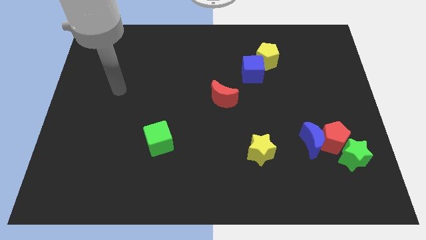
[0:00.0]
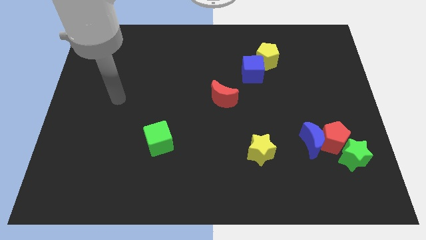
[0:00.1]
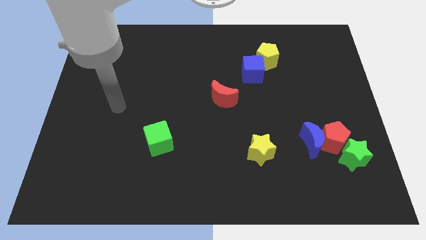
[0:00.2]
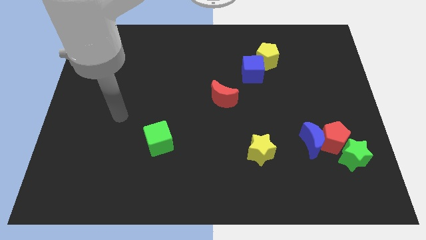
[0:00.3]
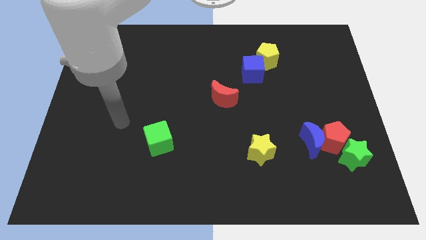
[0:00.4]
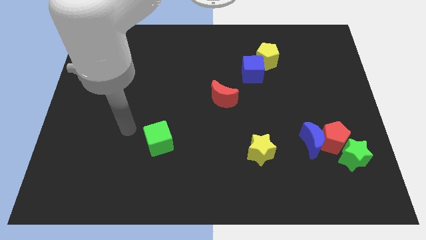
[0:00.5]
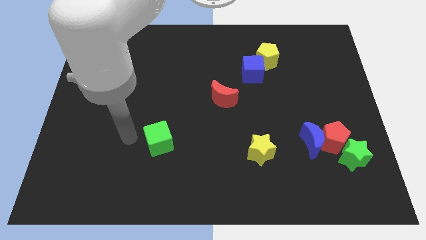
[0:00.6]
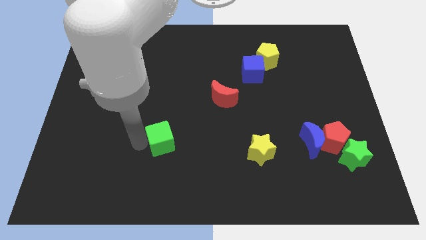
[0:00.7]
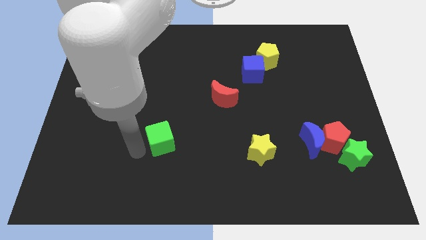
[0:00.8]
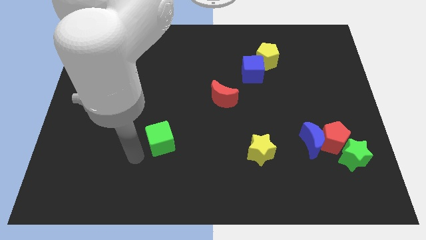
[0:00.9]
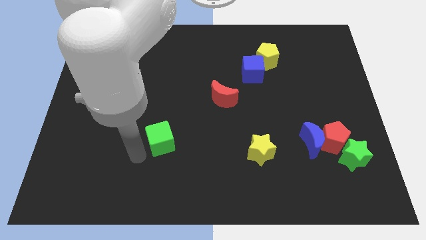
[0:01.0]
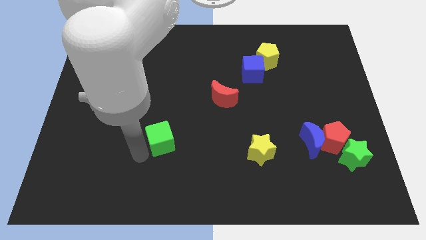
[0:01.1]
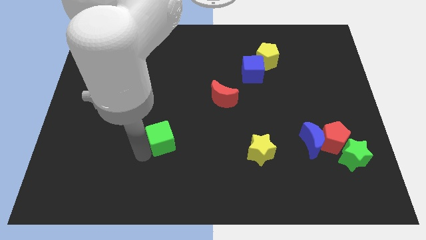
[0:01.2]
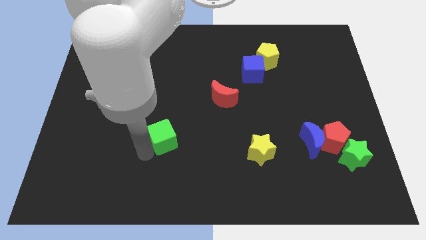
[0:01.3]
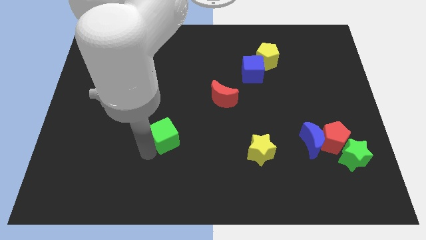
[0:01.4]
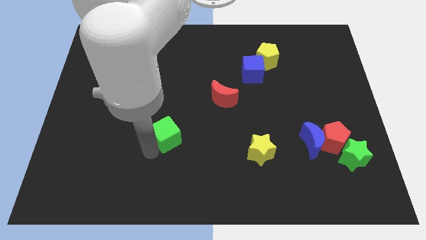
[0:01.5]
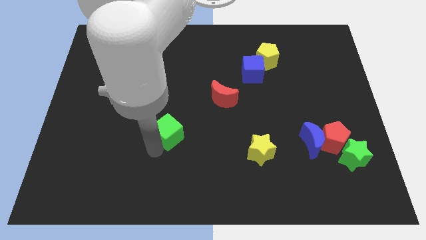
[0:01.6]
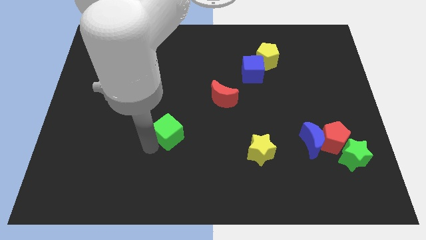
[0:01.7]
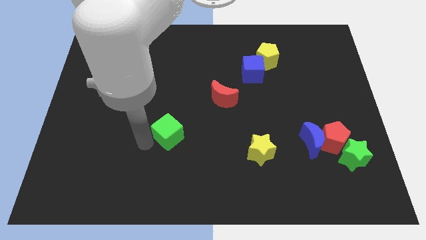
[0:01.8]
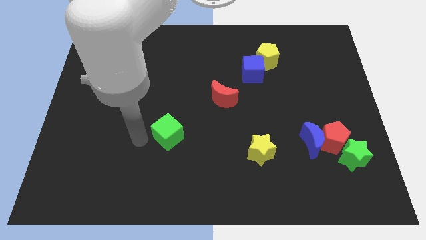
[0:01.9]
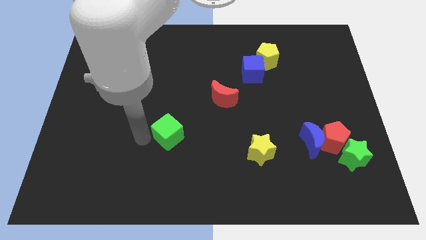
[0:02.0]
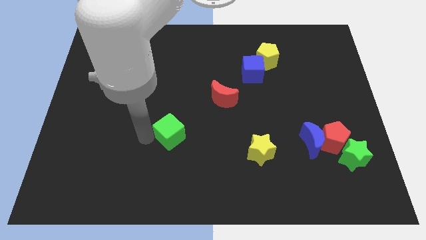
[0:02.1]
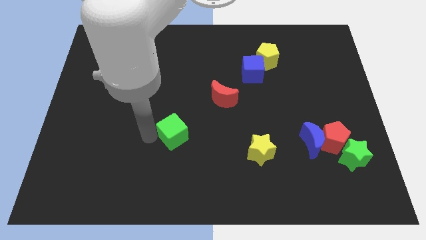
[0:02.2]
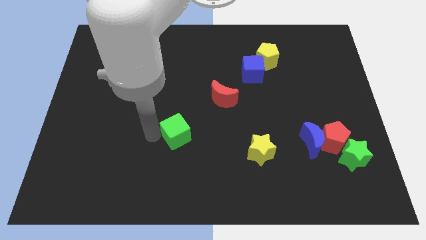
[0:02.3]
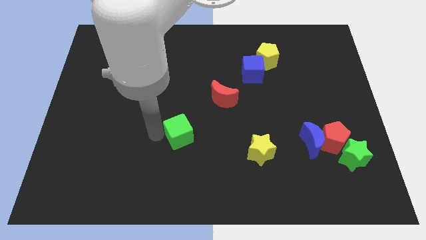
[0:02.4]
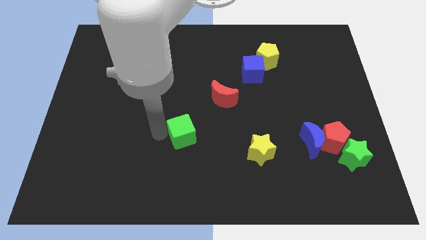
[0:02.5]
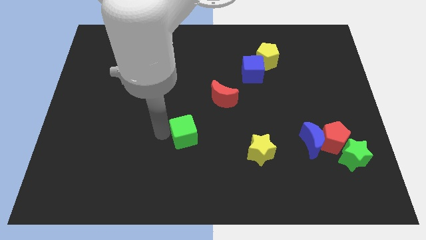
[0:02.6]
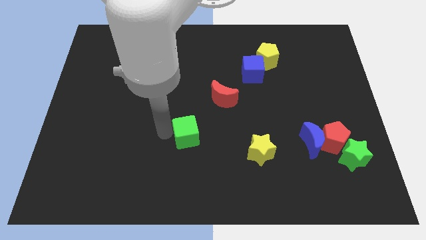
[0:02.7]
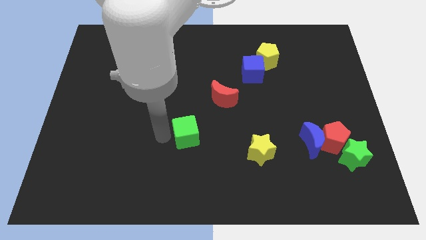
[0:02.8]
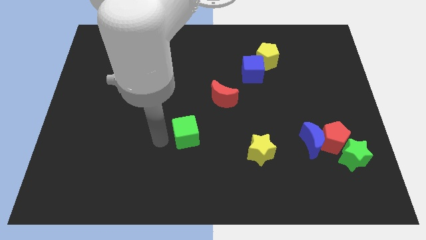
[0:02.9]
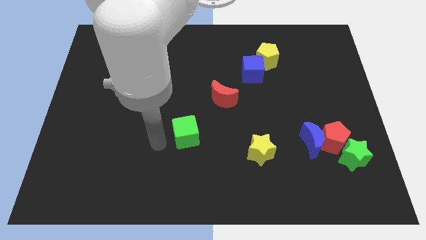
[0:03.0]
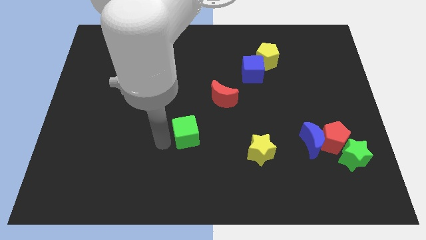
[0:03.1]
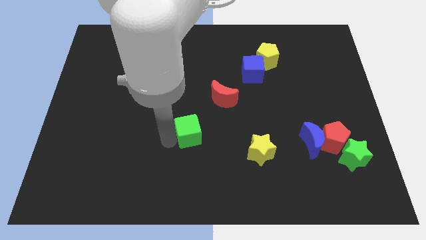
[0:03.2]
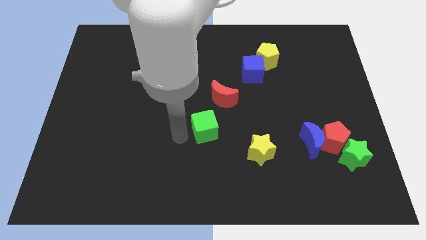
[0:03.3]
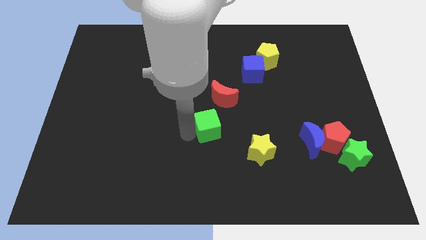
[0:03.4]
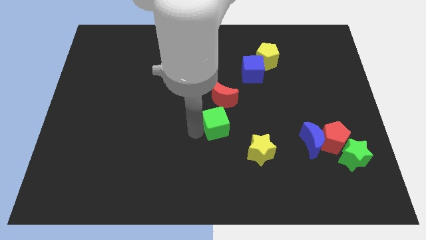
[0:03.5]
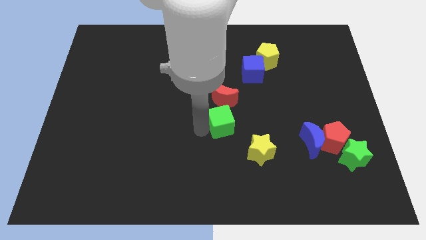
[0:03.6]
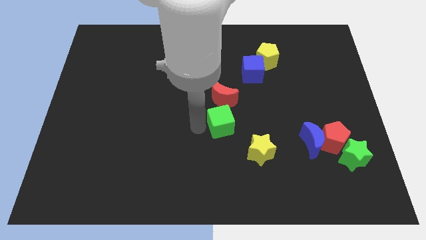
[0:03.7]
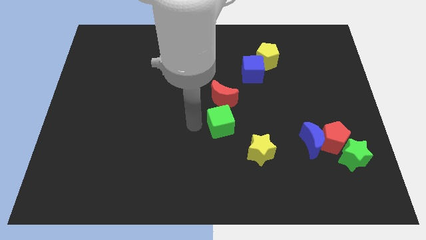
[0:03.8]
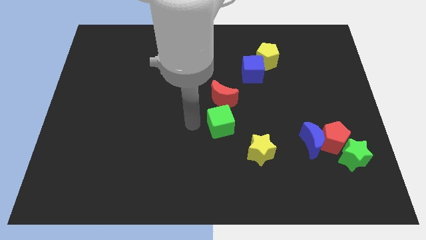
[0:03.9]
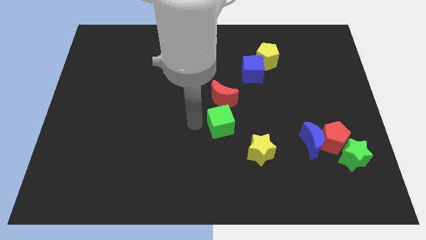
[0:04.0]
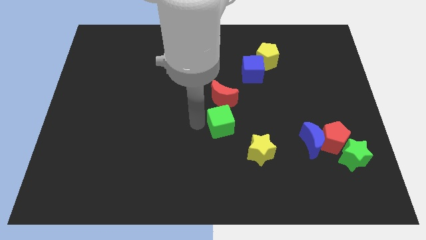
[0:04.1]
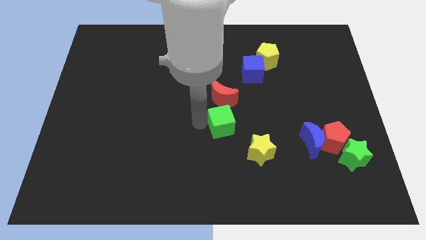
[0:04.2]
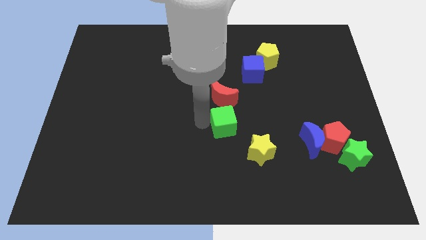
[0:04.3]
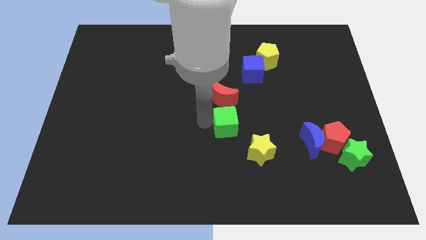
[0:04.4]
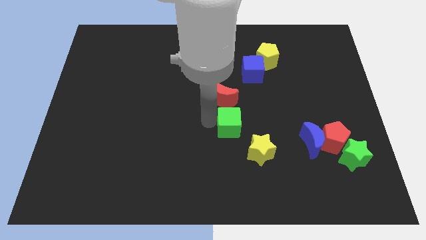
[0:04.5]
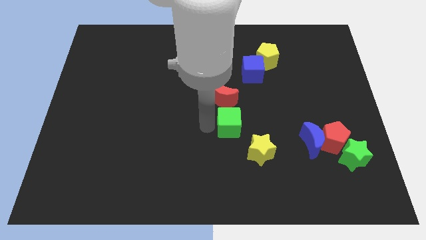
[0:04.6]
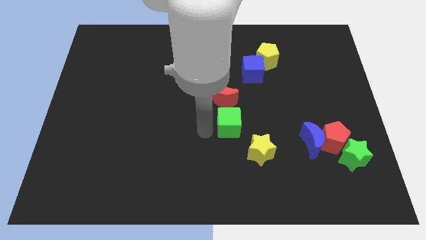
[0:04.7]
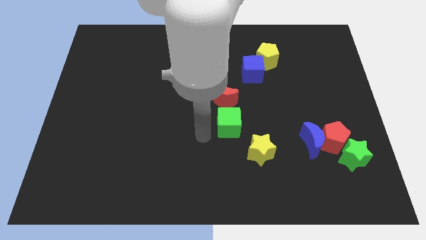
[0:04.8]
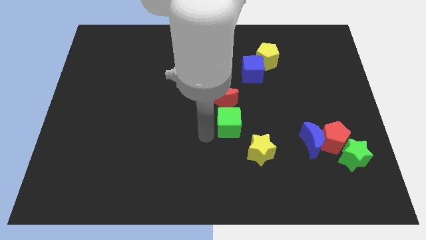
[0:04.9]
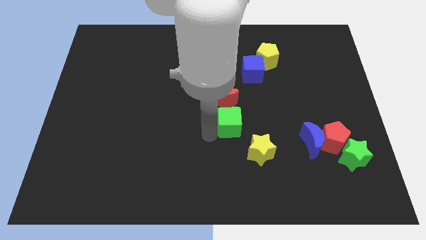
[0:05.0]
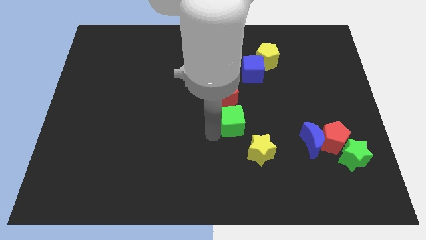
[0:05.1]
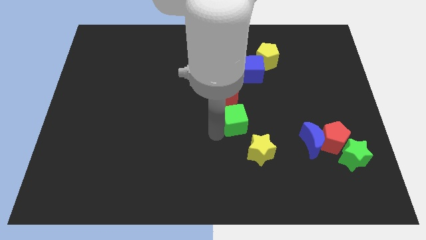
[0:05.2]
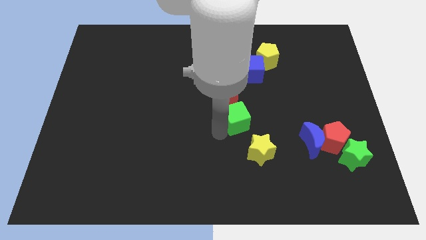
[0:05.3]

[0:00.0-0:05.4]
move the green cube above the yellow star

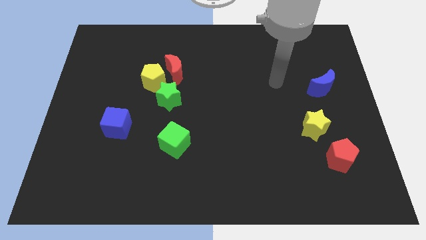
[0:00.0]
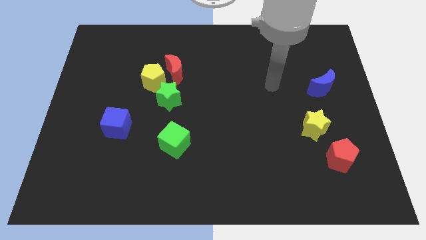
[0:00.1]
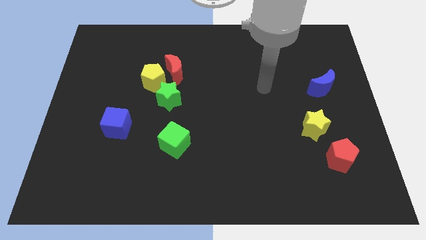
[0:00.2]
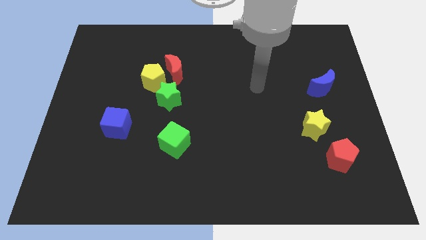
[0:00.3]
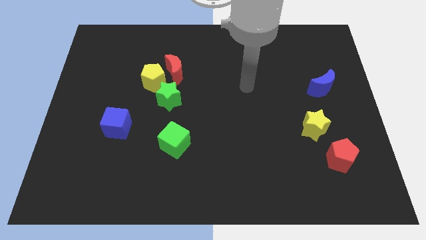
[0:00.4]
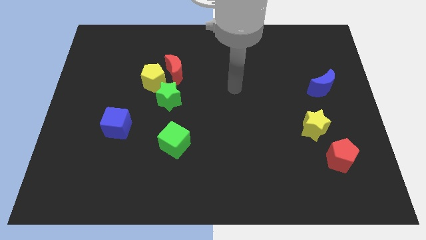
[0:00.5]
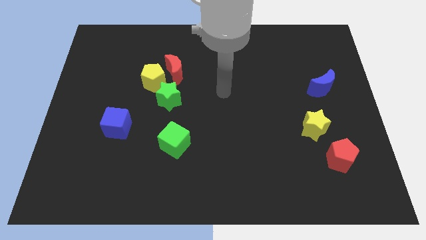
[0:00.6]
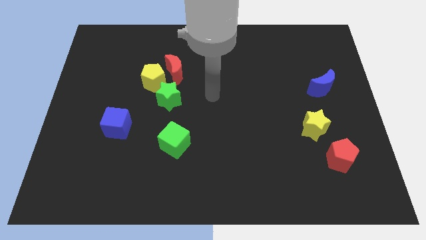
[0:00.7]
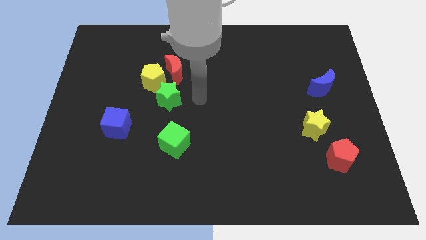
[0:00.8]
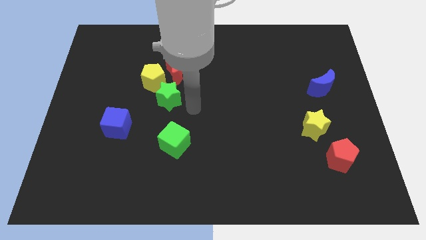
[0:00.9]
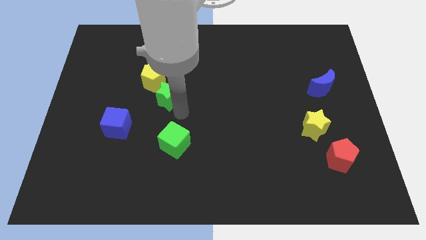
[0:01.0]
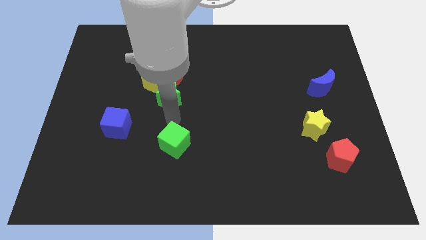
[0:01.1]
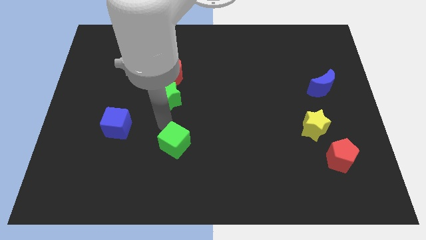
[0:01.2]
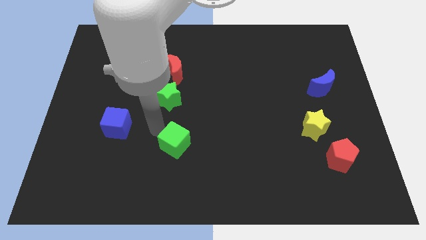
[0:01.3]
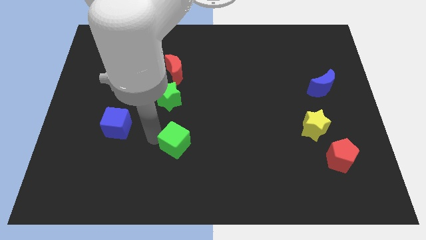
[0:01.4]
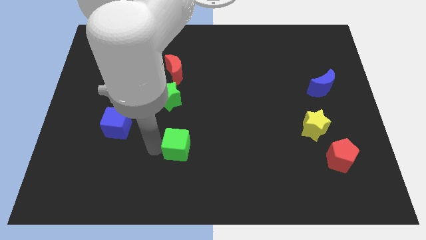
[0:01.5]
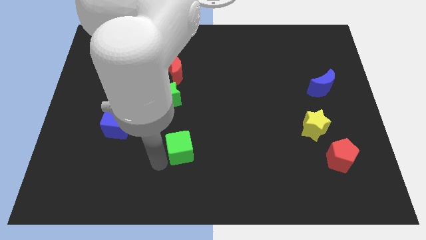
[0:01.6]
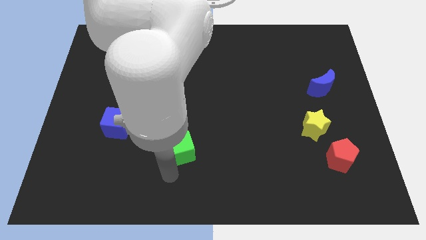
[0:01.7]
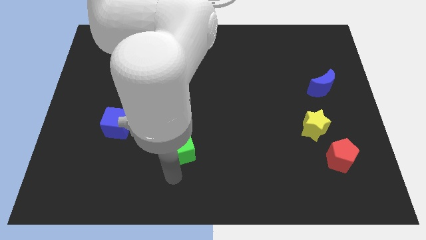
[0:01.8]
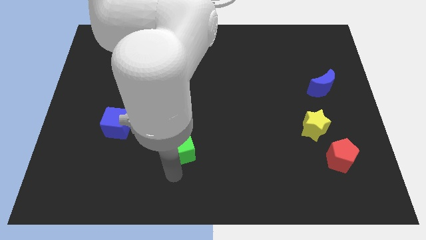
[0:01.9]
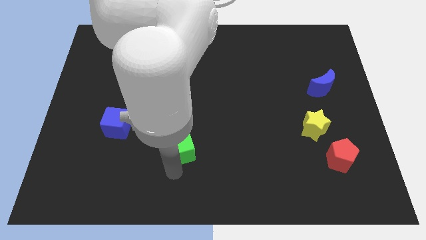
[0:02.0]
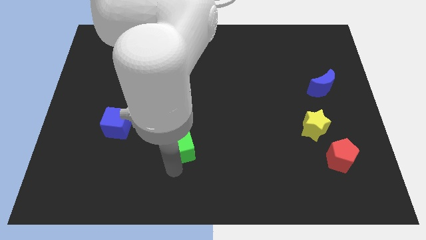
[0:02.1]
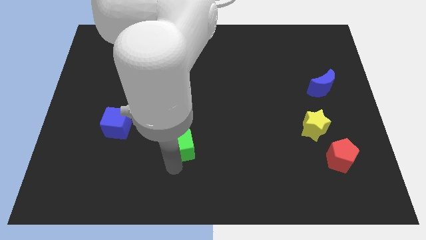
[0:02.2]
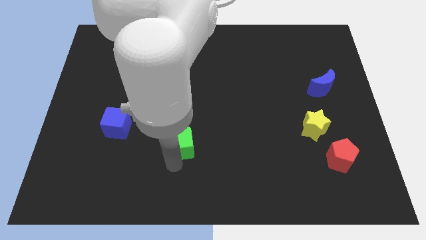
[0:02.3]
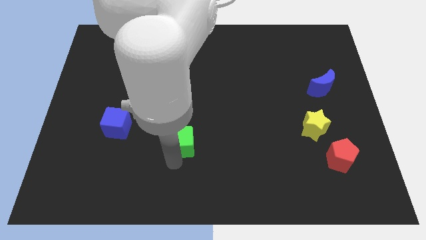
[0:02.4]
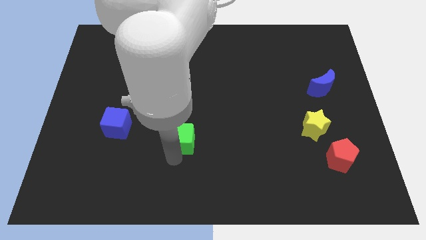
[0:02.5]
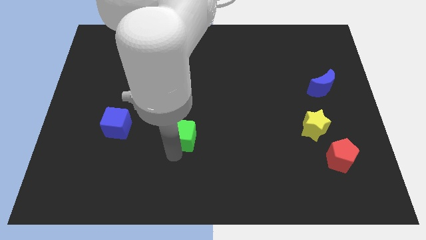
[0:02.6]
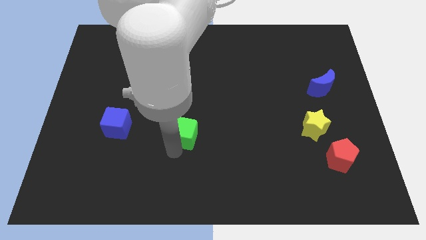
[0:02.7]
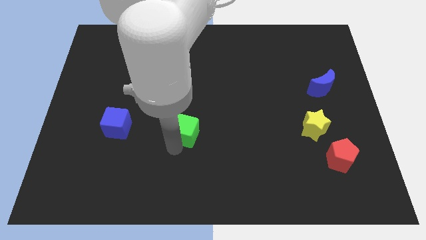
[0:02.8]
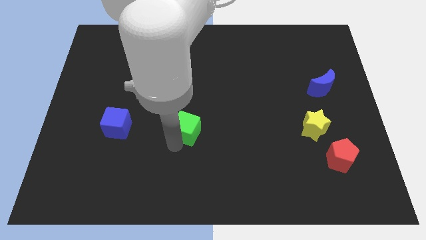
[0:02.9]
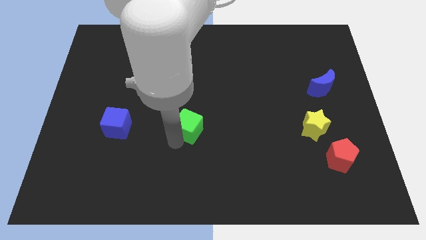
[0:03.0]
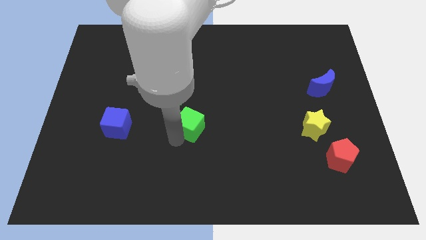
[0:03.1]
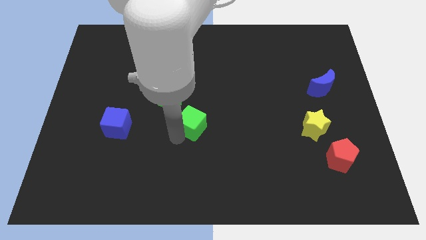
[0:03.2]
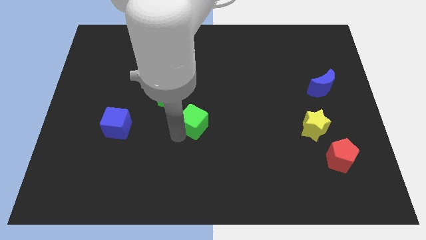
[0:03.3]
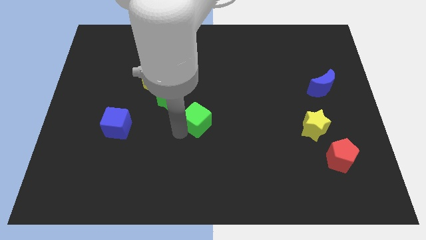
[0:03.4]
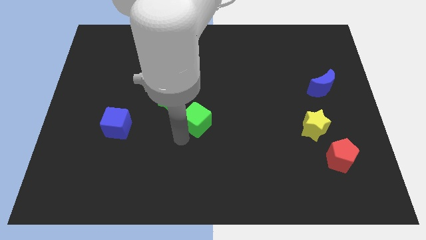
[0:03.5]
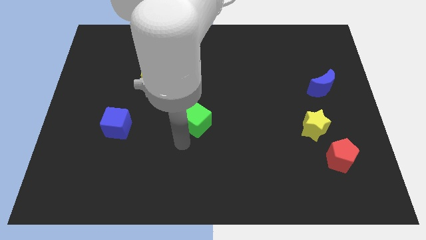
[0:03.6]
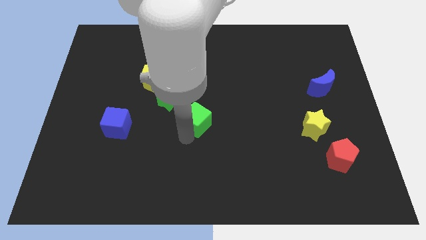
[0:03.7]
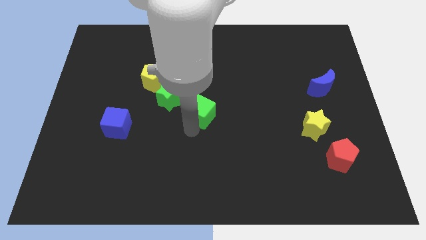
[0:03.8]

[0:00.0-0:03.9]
move the green cube just right of the green star
